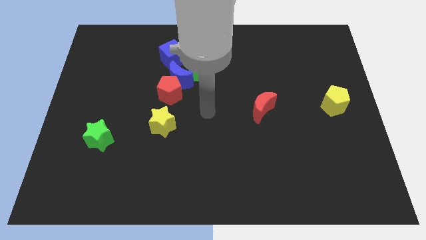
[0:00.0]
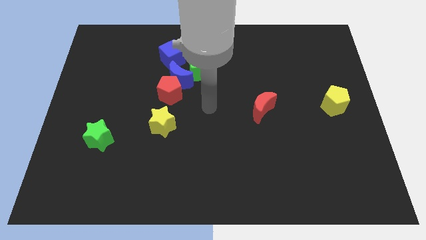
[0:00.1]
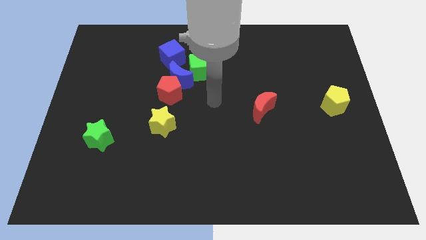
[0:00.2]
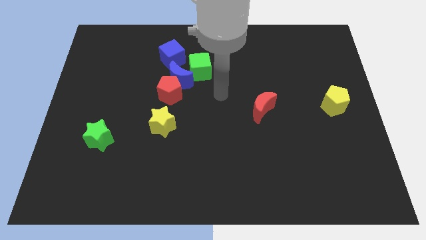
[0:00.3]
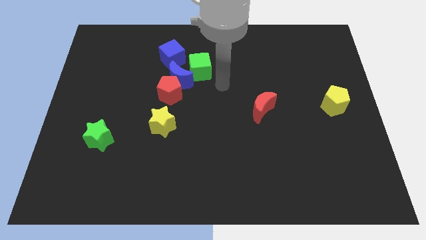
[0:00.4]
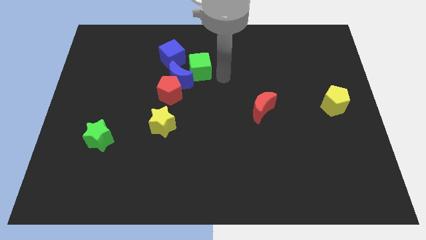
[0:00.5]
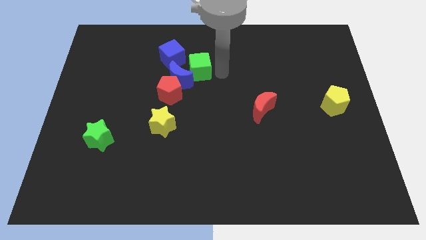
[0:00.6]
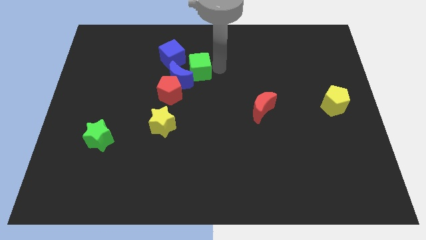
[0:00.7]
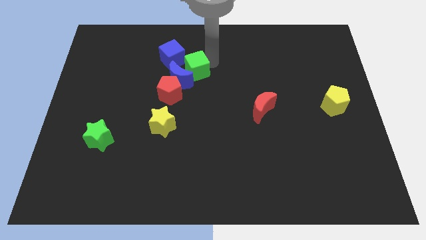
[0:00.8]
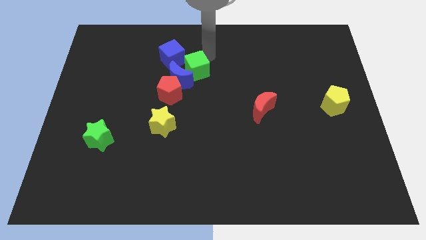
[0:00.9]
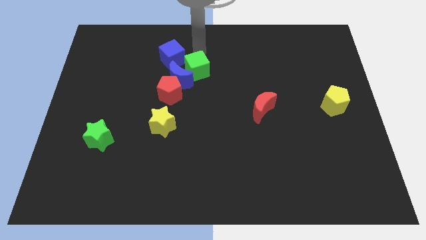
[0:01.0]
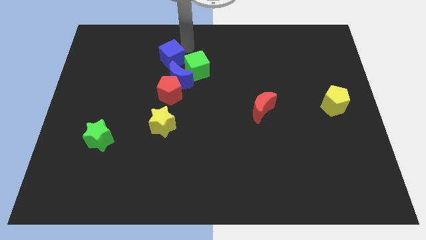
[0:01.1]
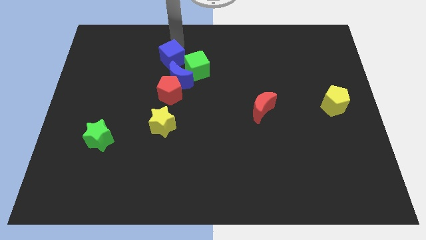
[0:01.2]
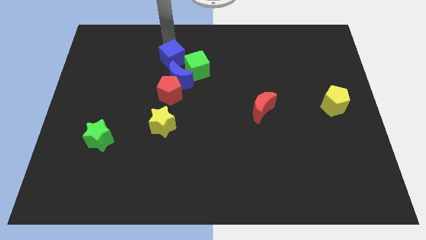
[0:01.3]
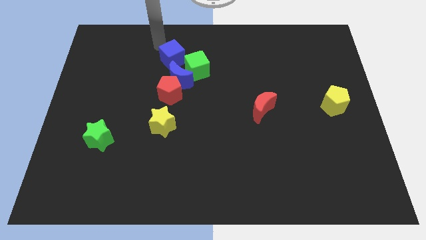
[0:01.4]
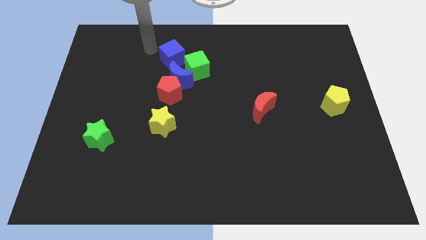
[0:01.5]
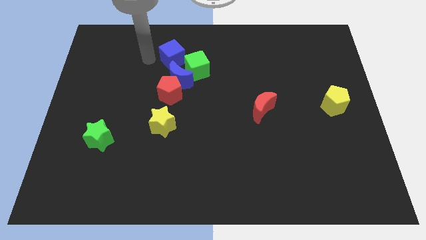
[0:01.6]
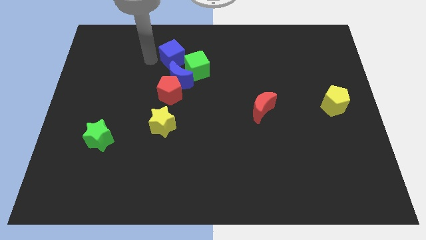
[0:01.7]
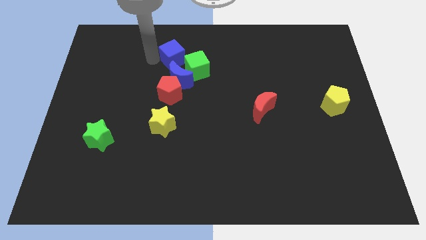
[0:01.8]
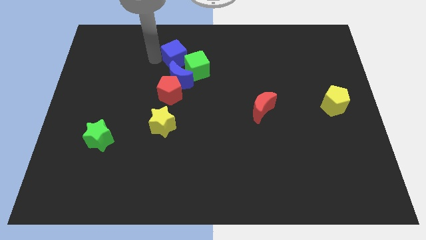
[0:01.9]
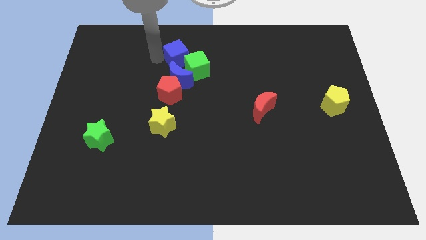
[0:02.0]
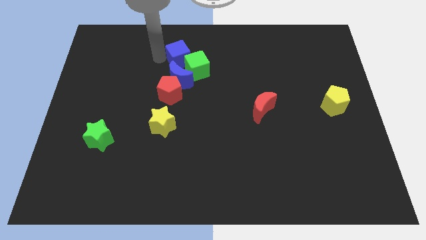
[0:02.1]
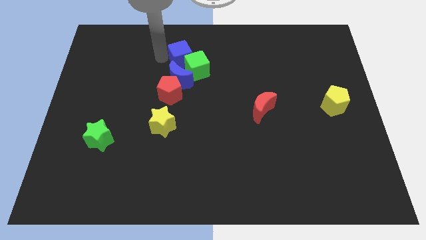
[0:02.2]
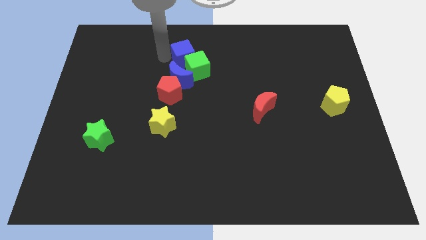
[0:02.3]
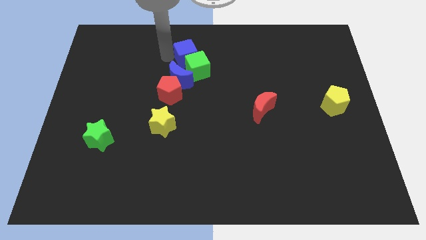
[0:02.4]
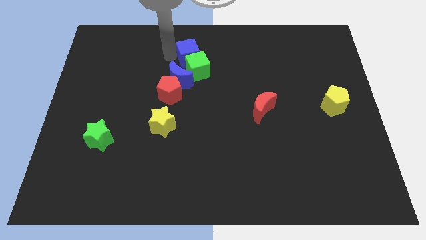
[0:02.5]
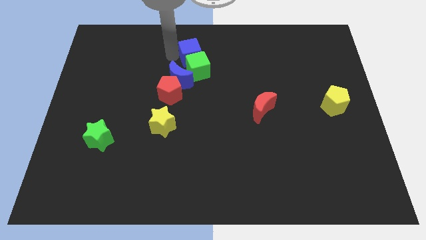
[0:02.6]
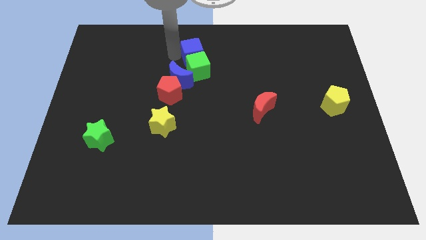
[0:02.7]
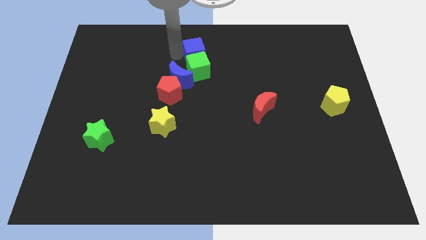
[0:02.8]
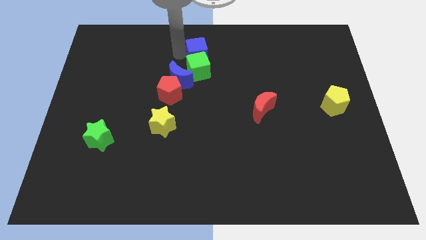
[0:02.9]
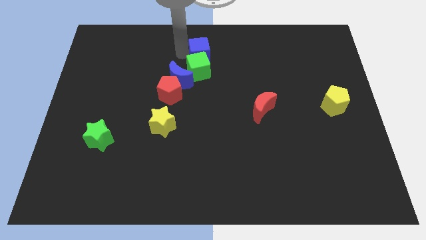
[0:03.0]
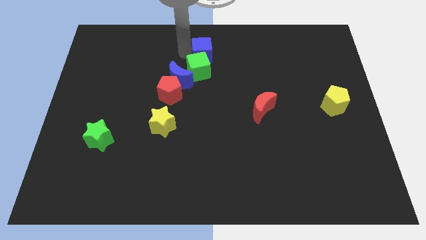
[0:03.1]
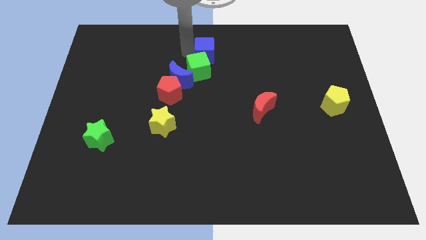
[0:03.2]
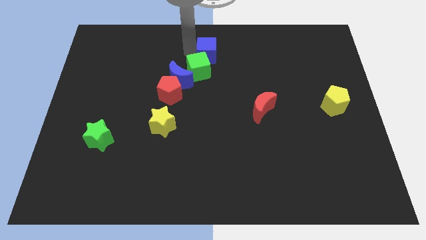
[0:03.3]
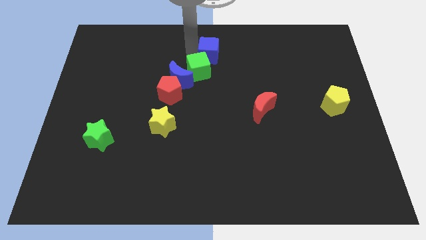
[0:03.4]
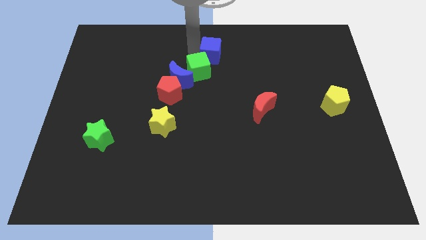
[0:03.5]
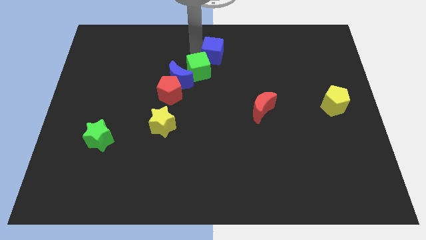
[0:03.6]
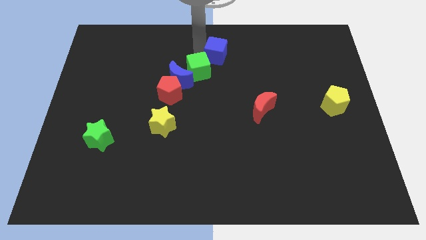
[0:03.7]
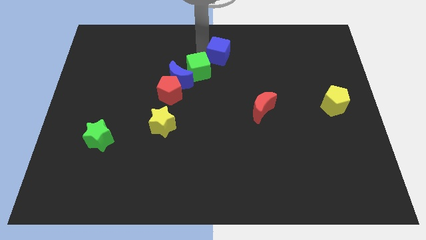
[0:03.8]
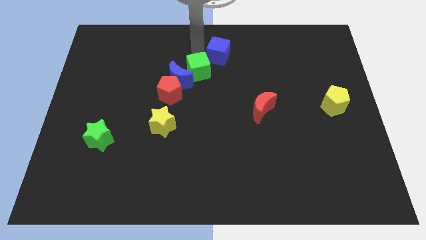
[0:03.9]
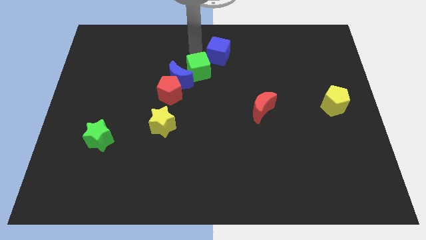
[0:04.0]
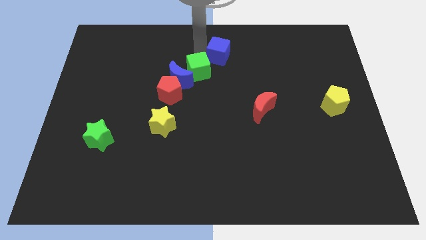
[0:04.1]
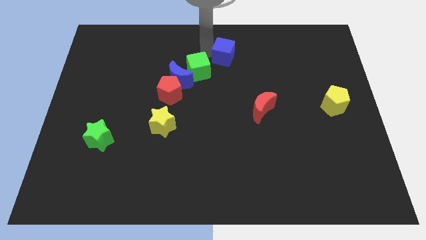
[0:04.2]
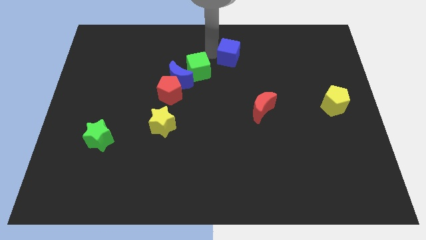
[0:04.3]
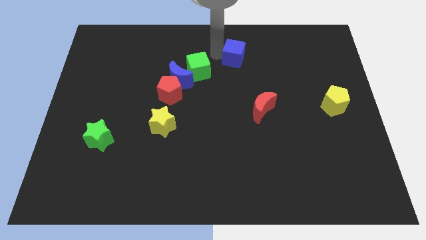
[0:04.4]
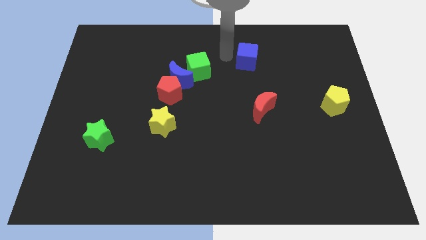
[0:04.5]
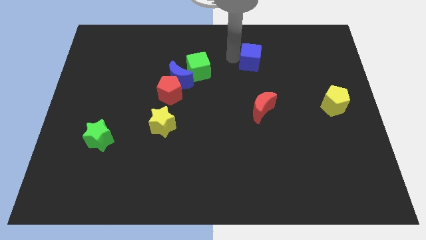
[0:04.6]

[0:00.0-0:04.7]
slide the blue cube right

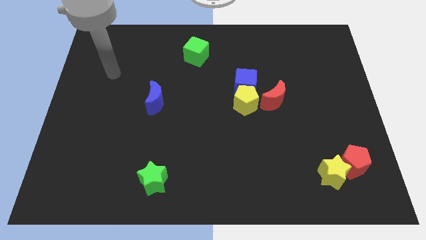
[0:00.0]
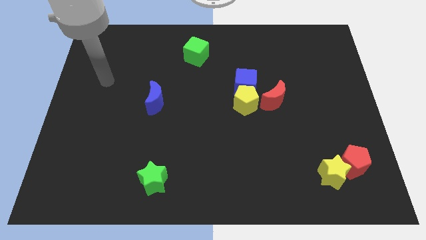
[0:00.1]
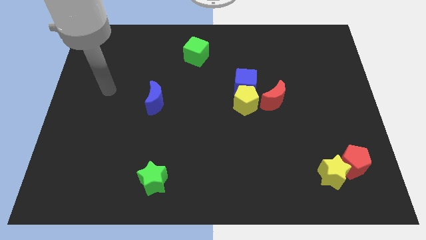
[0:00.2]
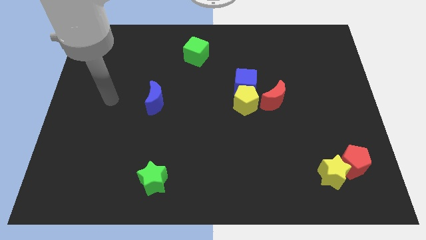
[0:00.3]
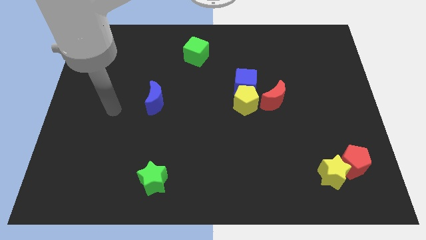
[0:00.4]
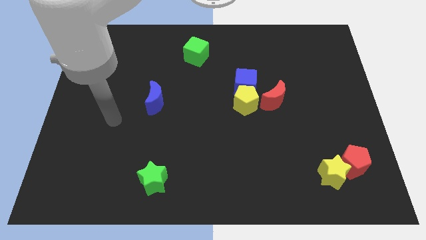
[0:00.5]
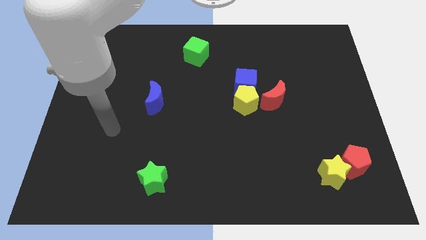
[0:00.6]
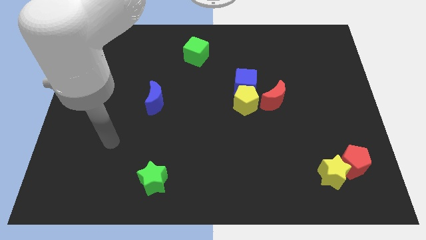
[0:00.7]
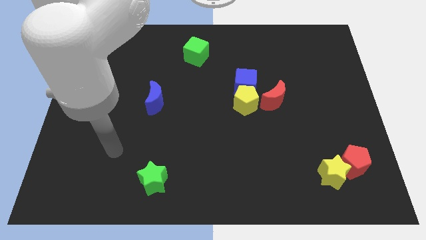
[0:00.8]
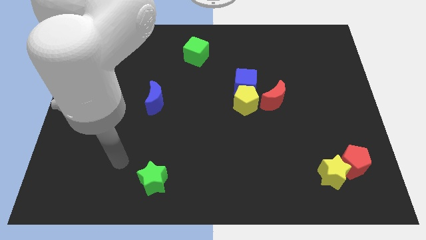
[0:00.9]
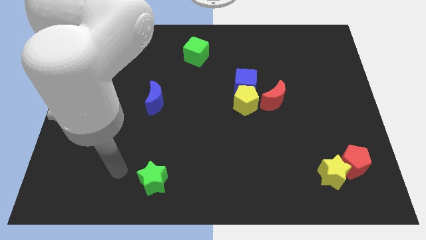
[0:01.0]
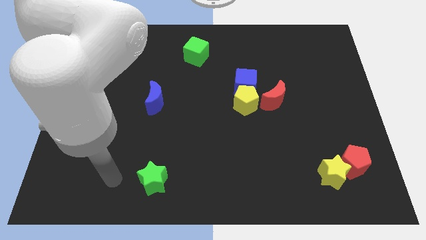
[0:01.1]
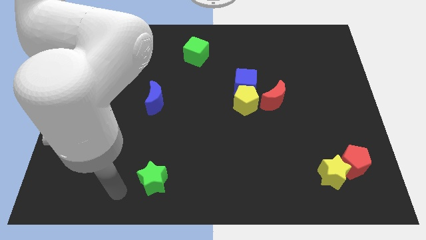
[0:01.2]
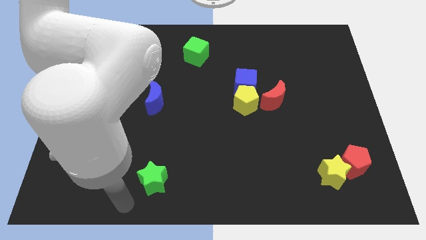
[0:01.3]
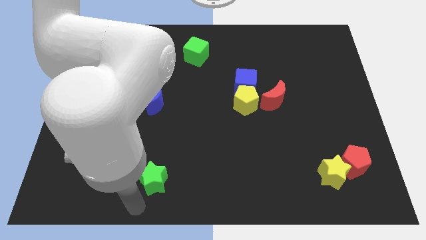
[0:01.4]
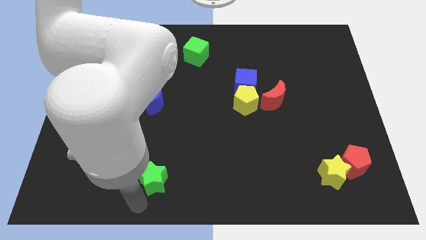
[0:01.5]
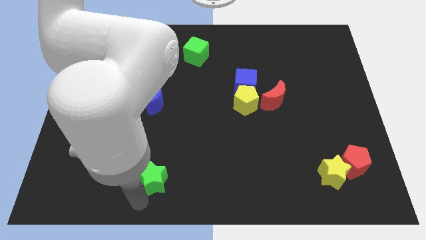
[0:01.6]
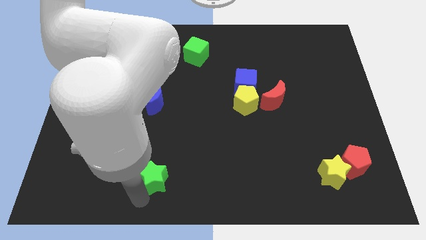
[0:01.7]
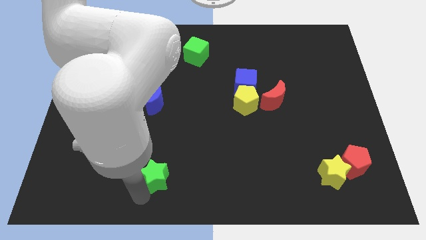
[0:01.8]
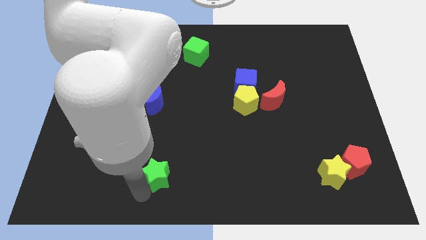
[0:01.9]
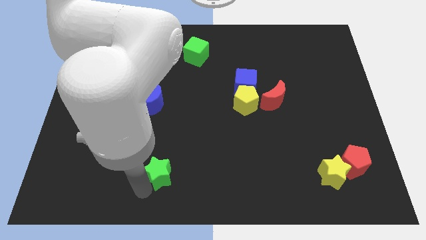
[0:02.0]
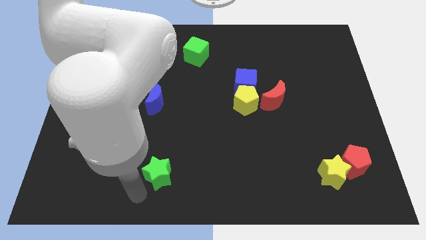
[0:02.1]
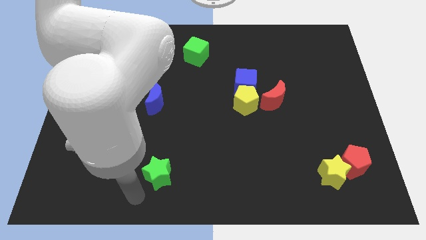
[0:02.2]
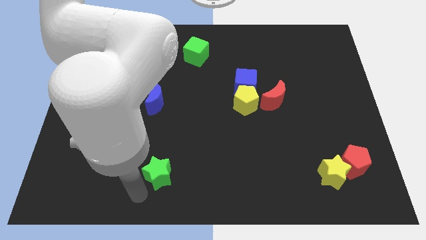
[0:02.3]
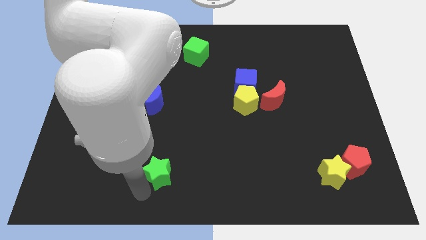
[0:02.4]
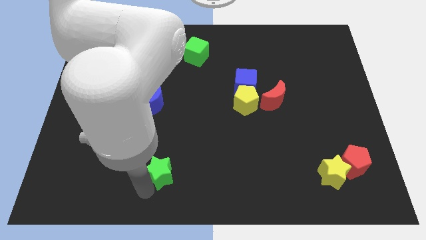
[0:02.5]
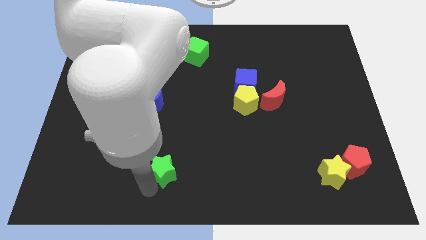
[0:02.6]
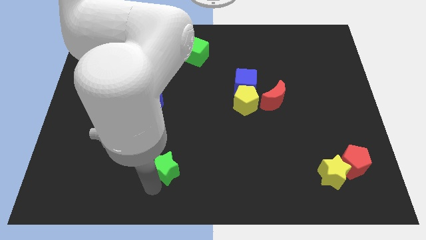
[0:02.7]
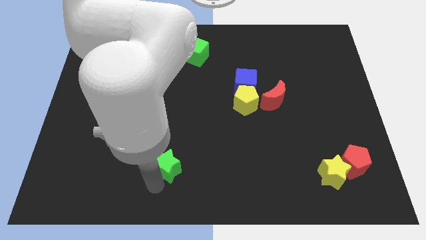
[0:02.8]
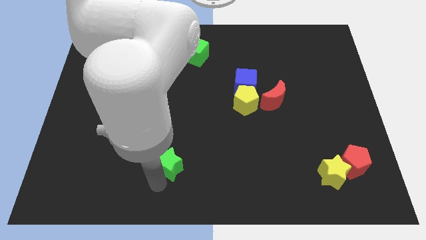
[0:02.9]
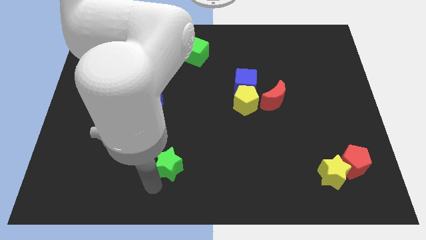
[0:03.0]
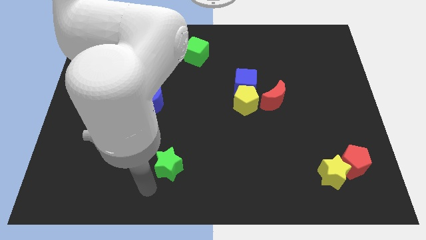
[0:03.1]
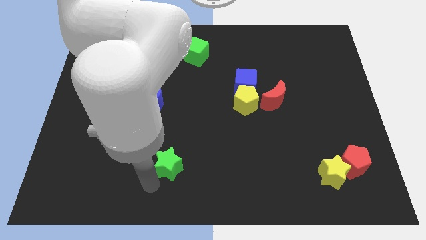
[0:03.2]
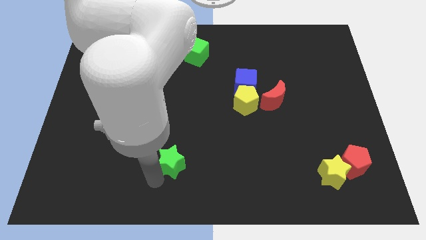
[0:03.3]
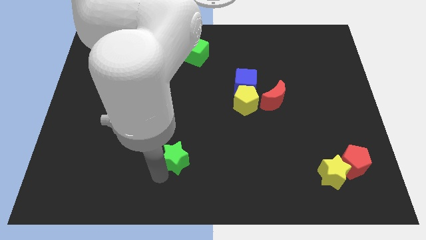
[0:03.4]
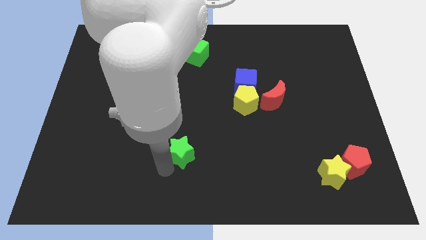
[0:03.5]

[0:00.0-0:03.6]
slightly push the green star upwards and then to the right
